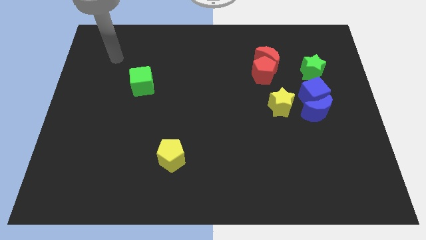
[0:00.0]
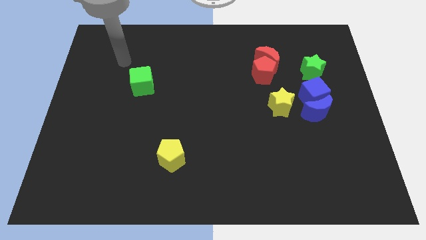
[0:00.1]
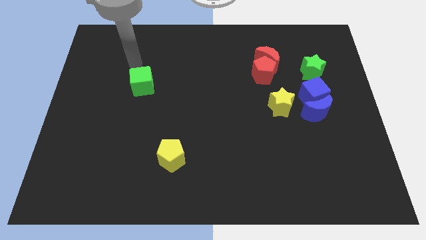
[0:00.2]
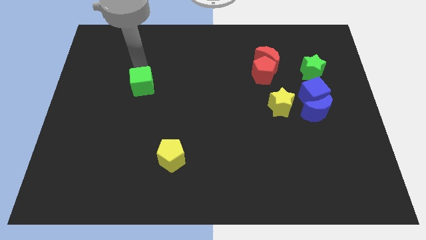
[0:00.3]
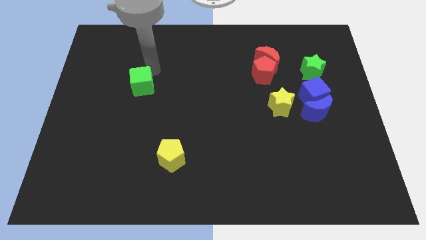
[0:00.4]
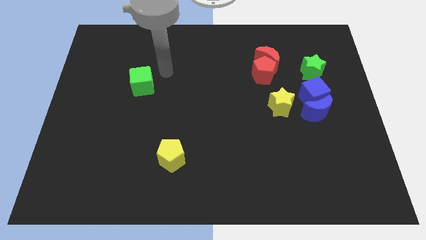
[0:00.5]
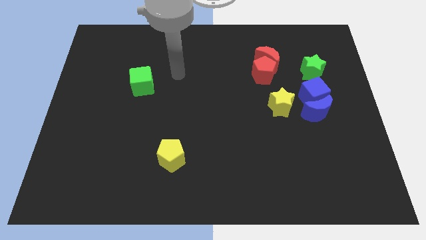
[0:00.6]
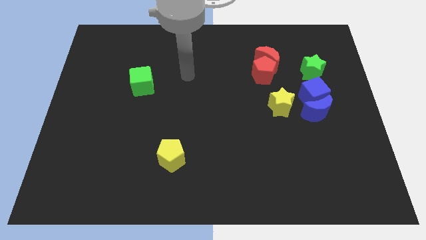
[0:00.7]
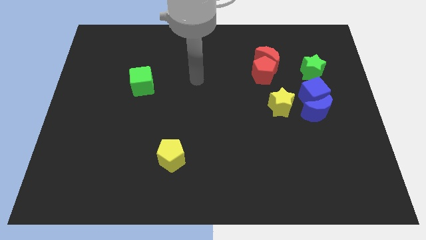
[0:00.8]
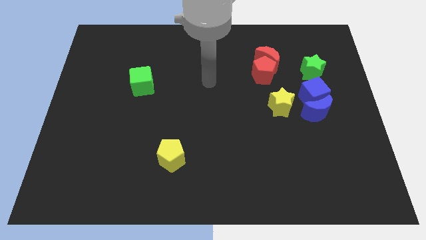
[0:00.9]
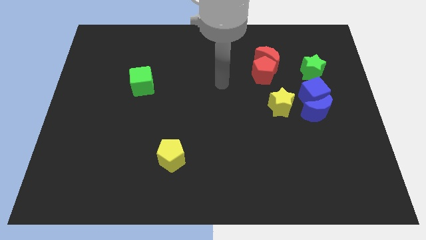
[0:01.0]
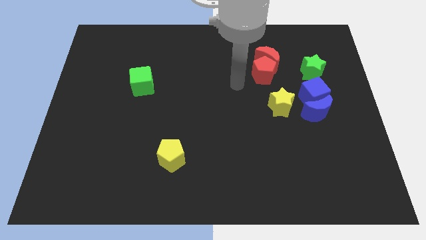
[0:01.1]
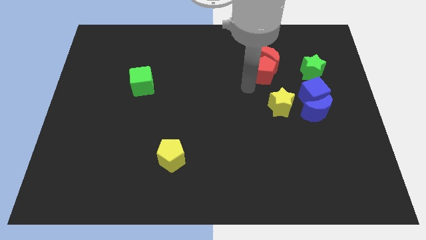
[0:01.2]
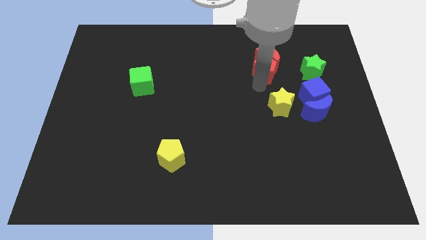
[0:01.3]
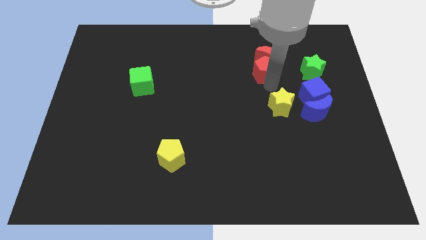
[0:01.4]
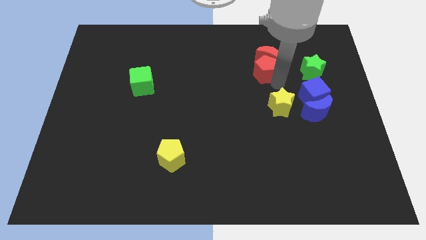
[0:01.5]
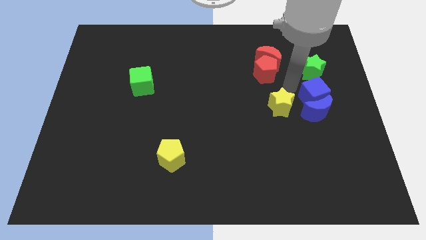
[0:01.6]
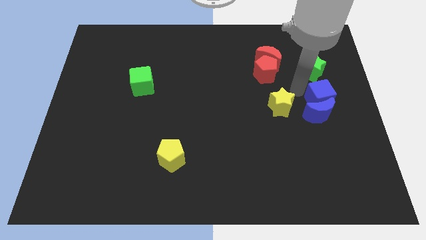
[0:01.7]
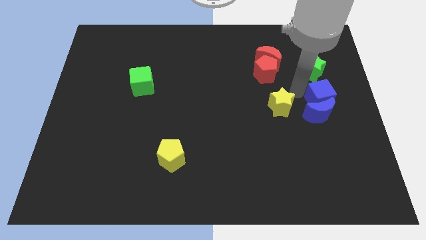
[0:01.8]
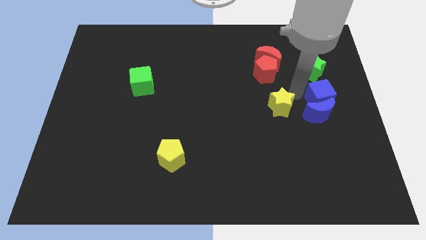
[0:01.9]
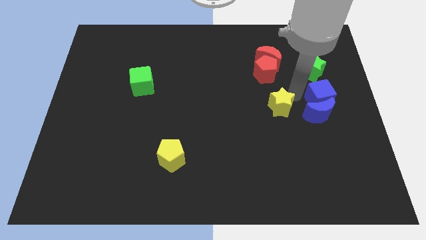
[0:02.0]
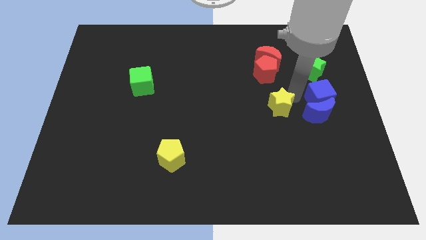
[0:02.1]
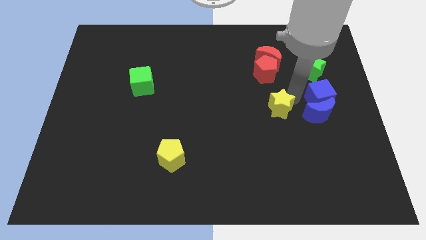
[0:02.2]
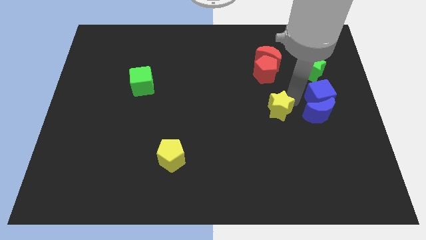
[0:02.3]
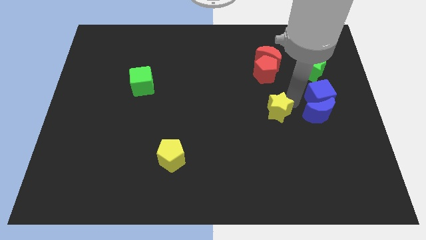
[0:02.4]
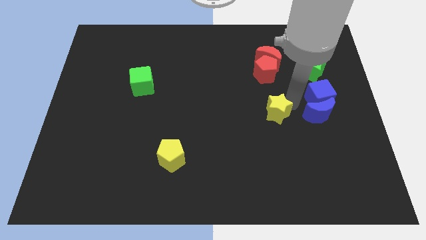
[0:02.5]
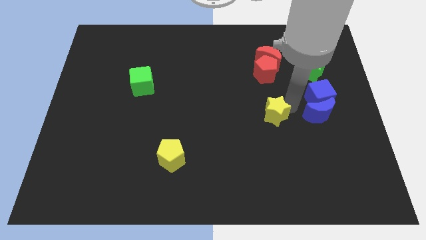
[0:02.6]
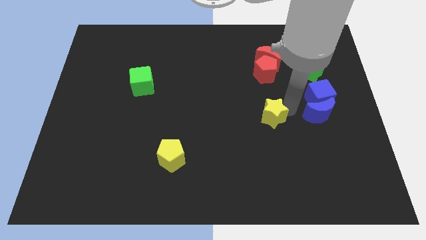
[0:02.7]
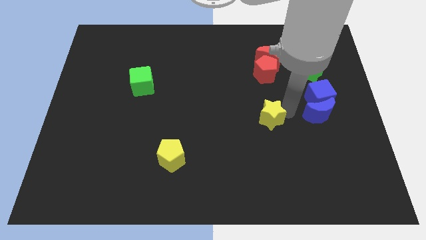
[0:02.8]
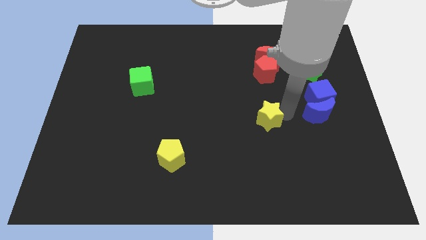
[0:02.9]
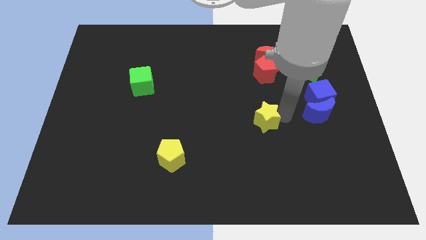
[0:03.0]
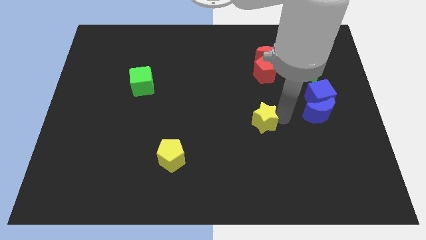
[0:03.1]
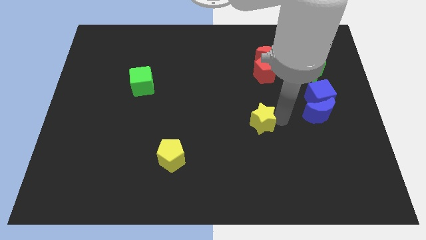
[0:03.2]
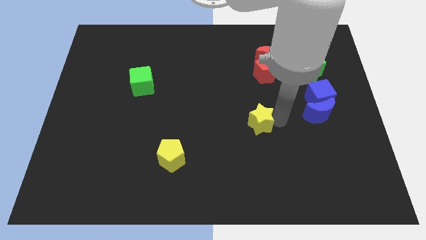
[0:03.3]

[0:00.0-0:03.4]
slide the yellow star slightly downwards and to the left

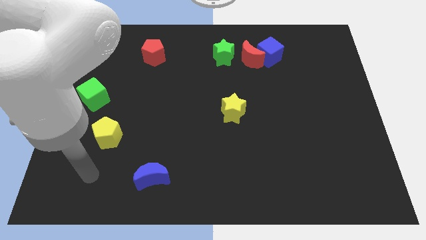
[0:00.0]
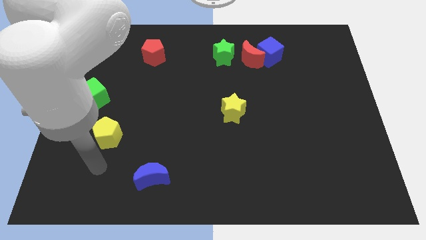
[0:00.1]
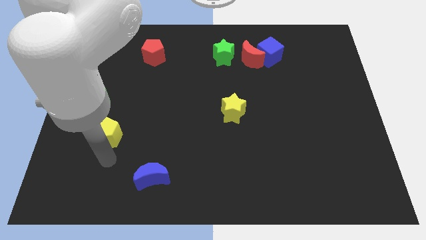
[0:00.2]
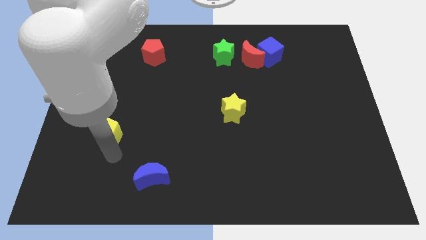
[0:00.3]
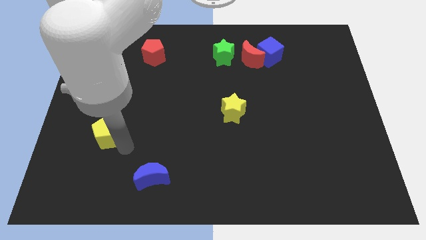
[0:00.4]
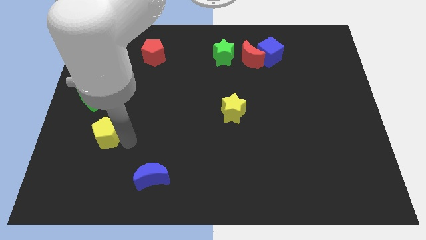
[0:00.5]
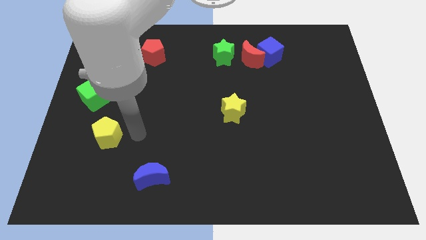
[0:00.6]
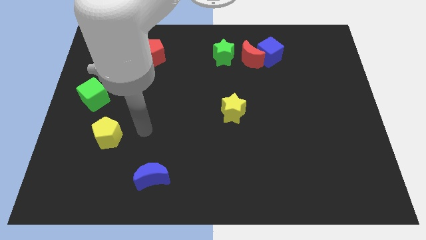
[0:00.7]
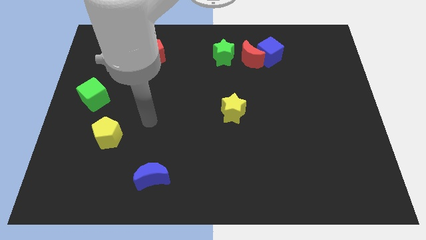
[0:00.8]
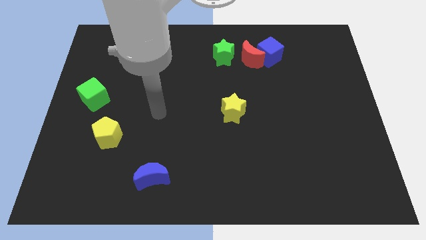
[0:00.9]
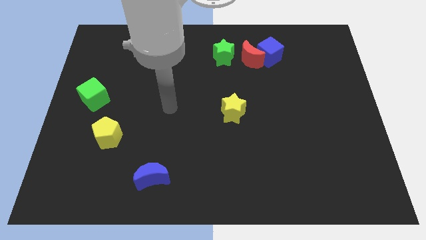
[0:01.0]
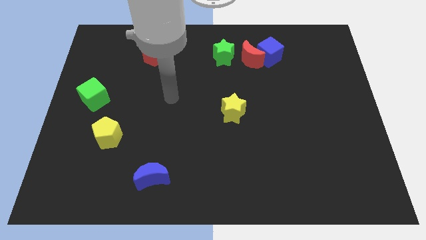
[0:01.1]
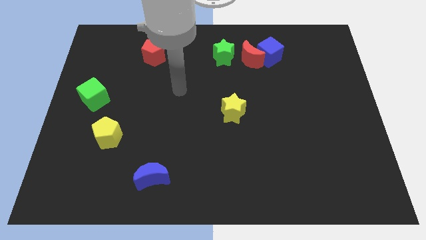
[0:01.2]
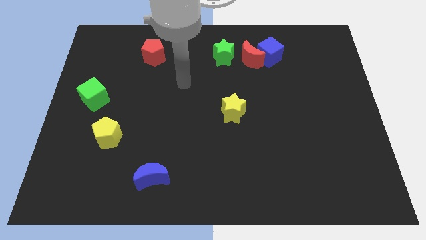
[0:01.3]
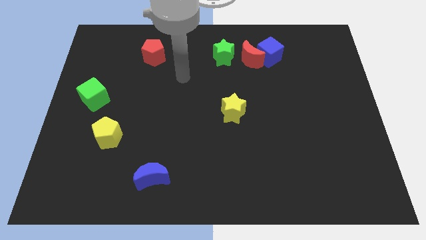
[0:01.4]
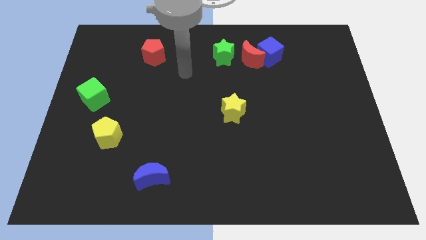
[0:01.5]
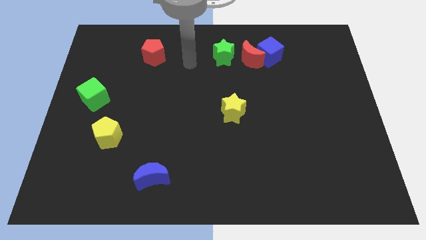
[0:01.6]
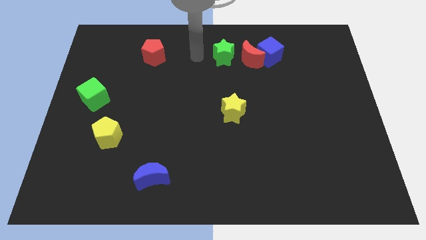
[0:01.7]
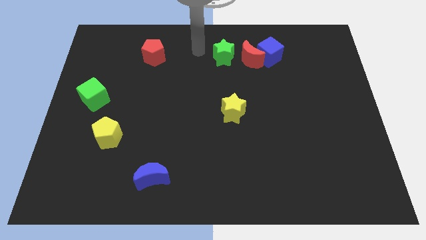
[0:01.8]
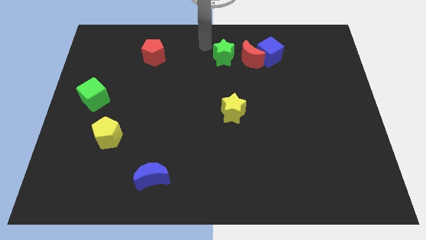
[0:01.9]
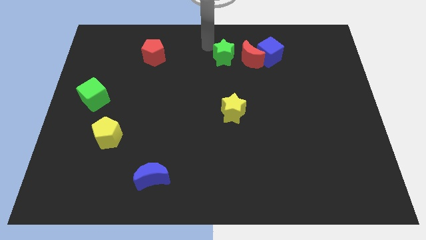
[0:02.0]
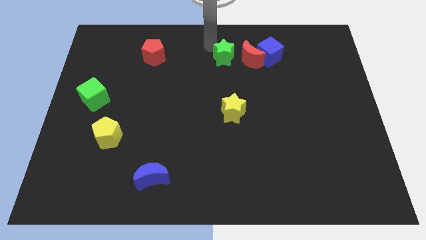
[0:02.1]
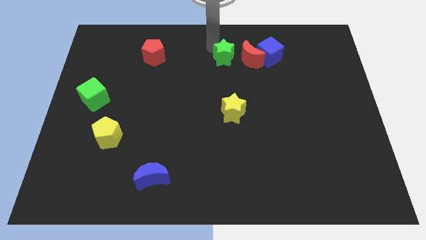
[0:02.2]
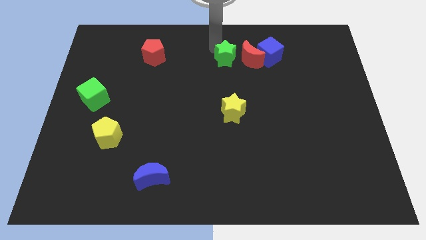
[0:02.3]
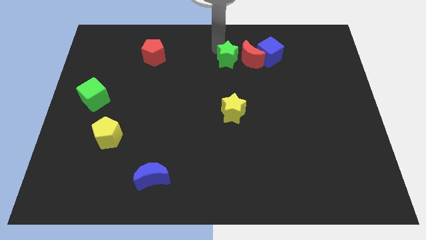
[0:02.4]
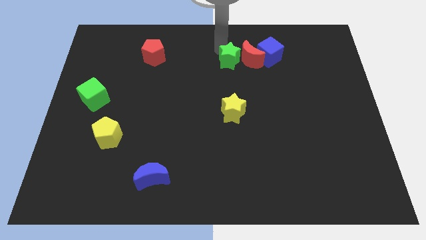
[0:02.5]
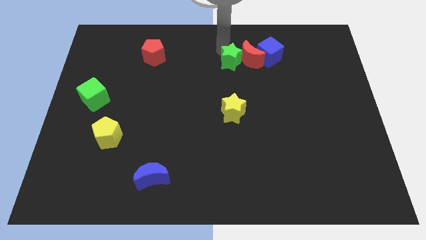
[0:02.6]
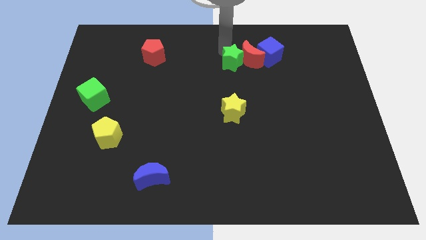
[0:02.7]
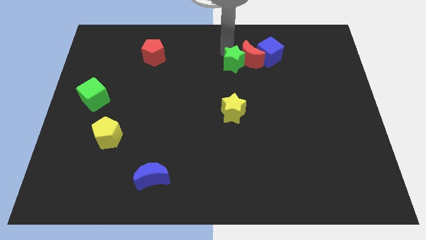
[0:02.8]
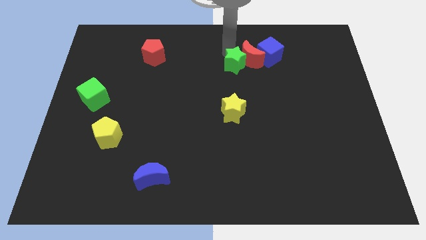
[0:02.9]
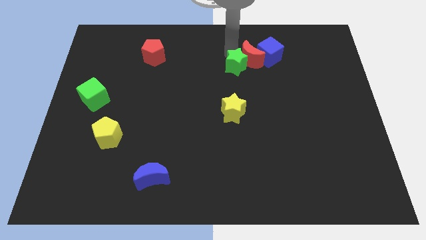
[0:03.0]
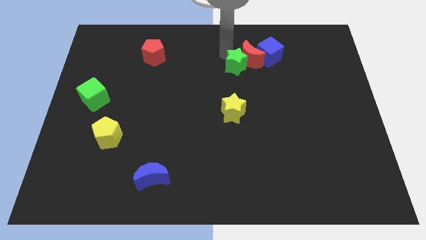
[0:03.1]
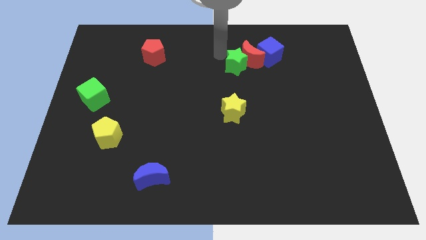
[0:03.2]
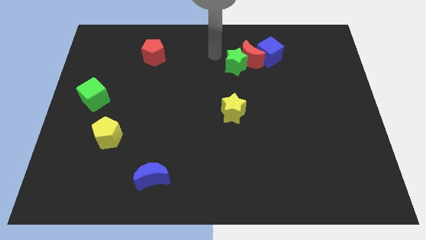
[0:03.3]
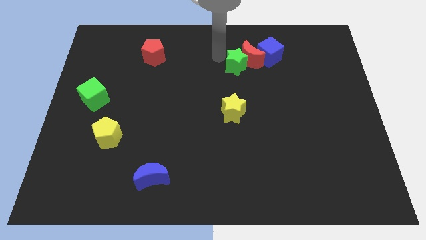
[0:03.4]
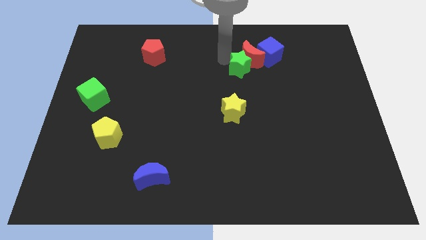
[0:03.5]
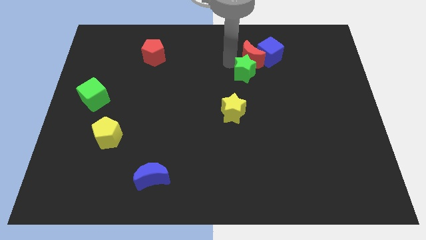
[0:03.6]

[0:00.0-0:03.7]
move the green star a little downwards and to the right

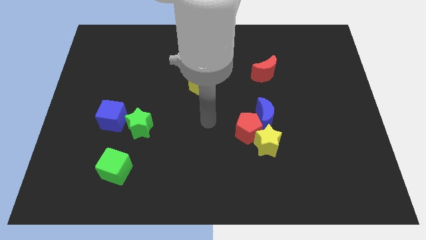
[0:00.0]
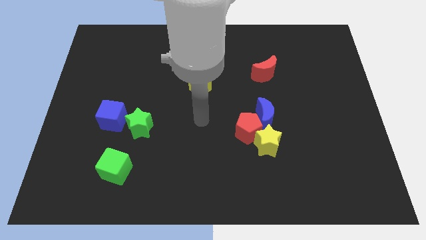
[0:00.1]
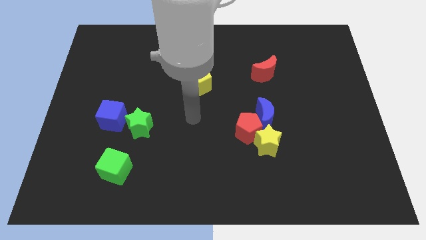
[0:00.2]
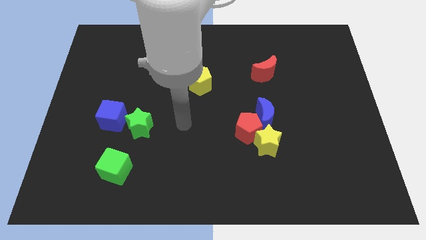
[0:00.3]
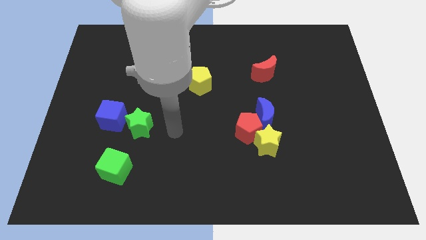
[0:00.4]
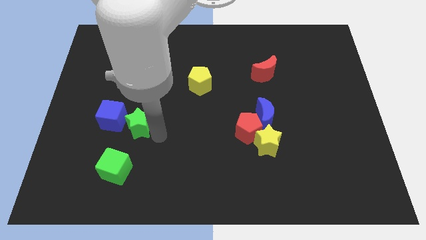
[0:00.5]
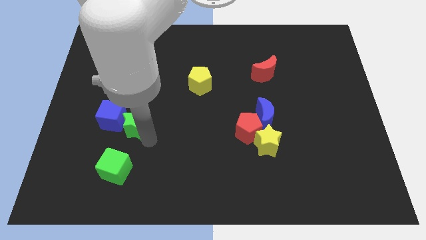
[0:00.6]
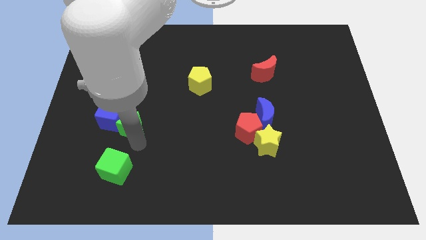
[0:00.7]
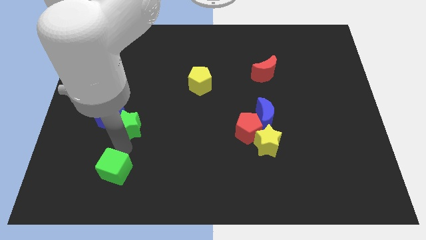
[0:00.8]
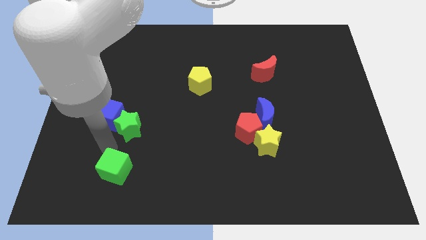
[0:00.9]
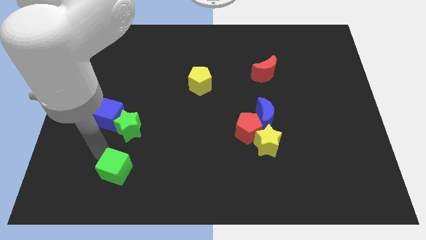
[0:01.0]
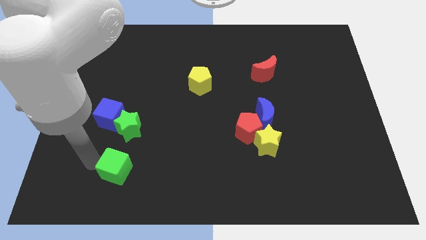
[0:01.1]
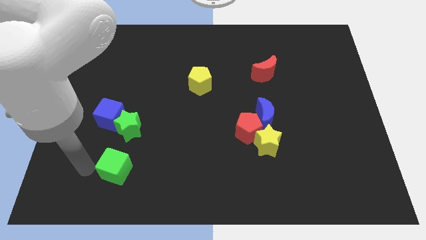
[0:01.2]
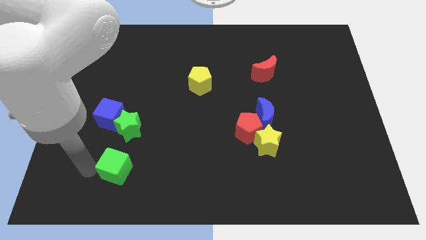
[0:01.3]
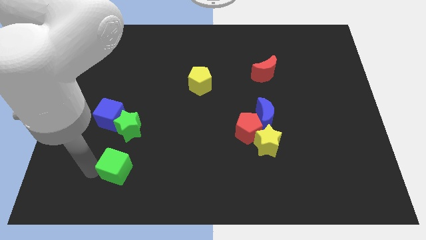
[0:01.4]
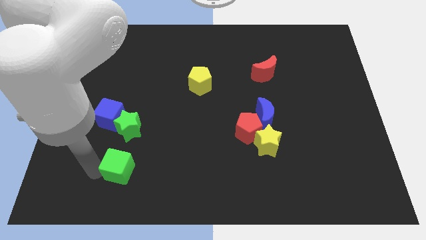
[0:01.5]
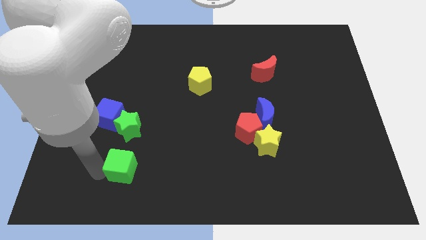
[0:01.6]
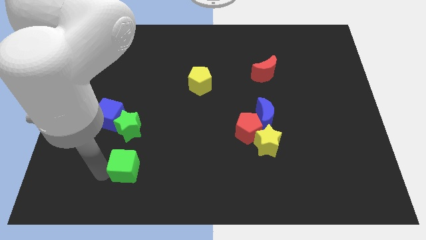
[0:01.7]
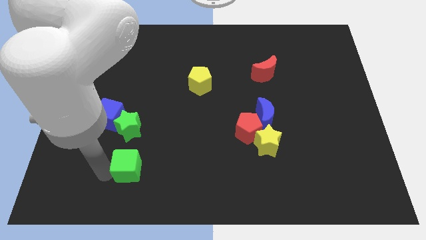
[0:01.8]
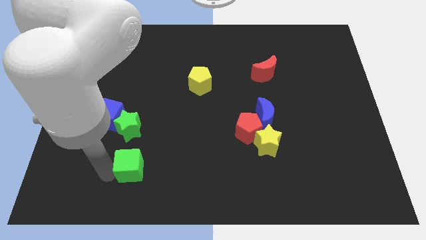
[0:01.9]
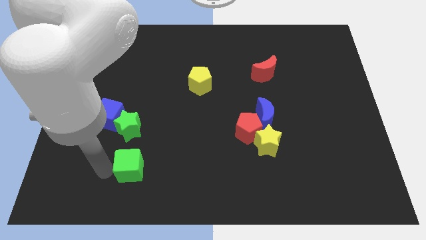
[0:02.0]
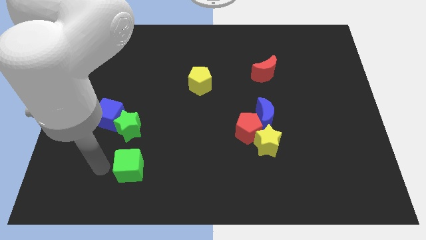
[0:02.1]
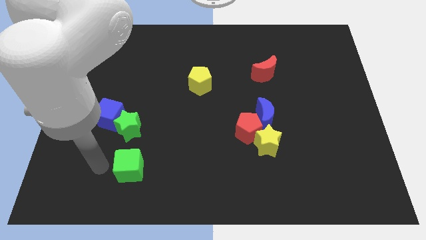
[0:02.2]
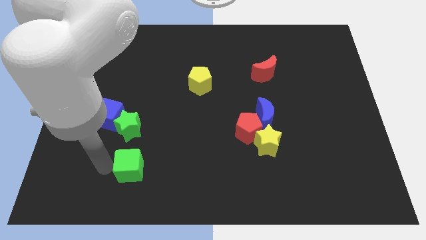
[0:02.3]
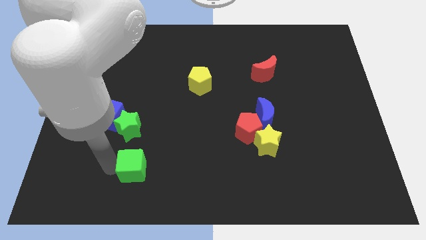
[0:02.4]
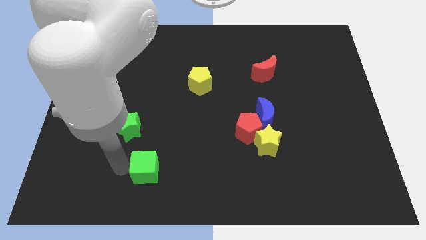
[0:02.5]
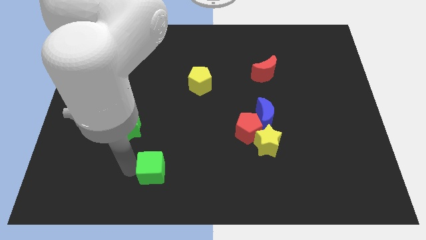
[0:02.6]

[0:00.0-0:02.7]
move the green cube to the right slightly
